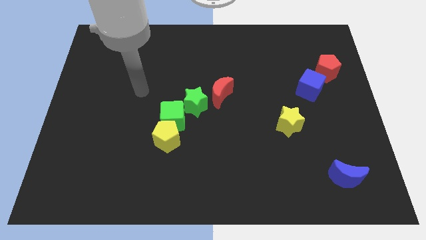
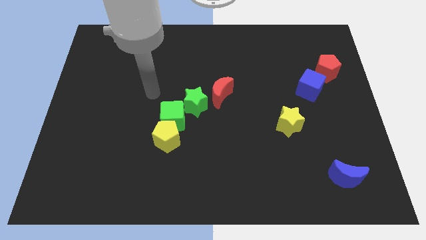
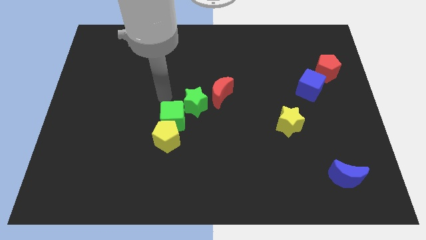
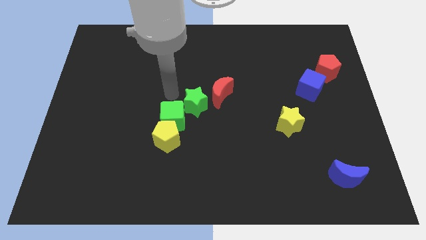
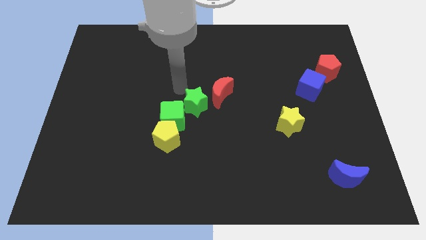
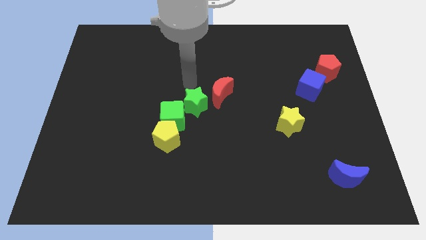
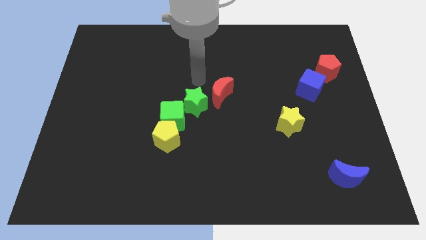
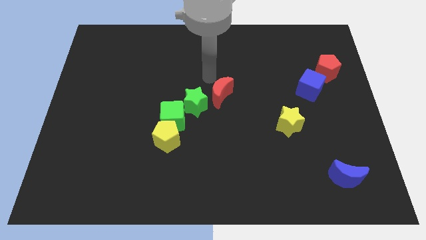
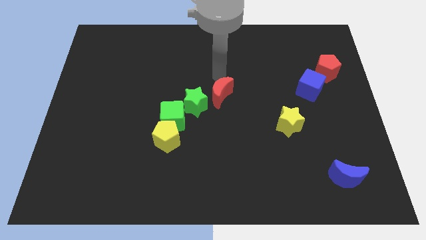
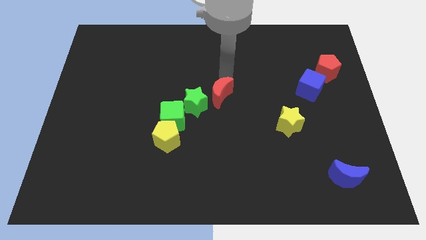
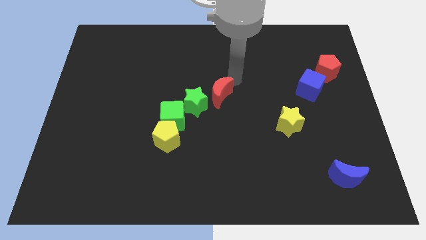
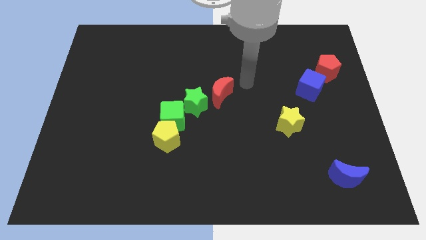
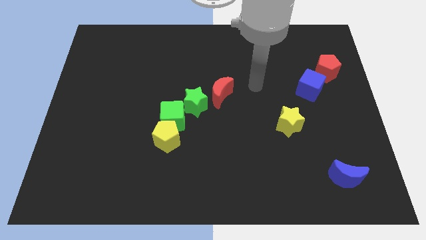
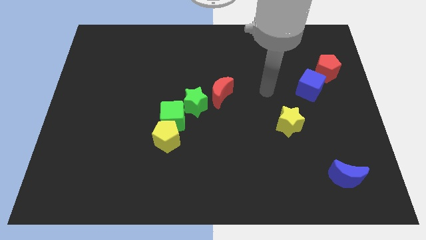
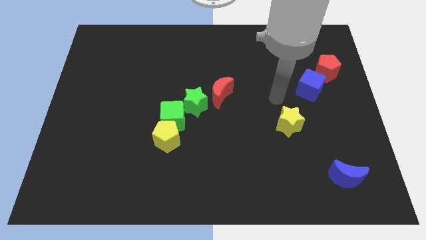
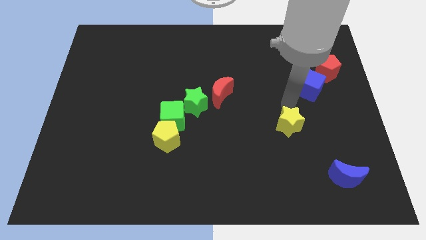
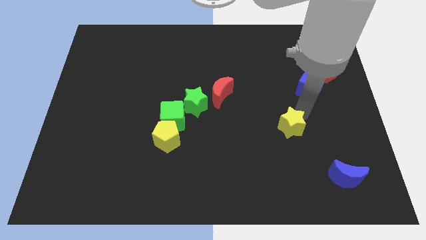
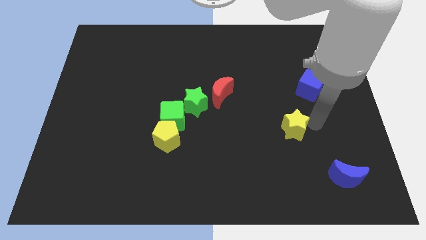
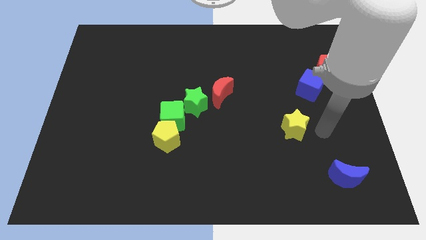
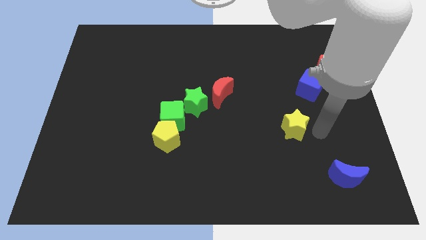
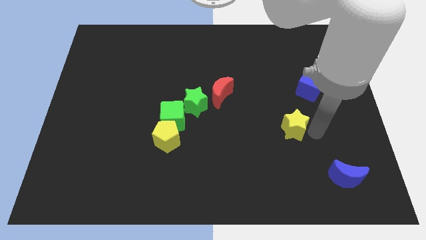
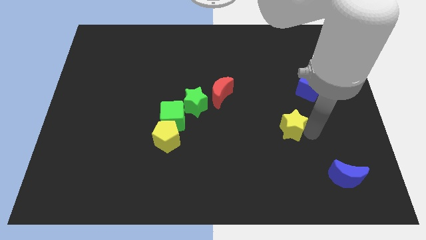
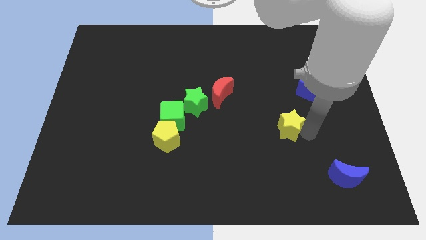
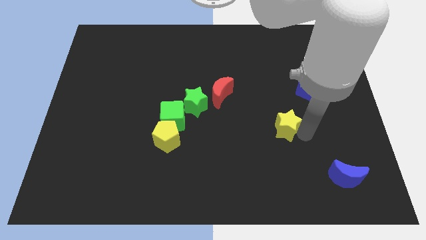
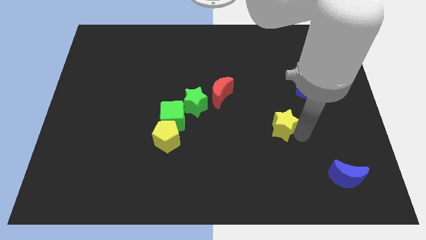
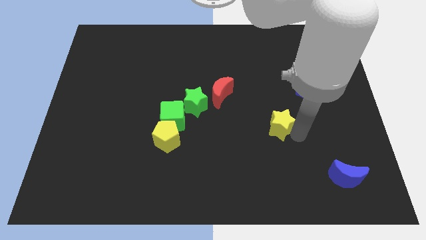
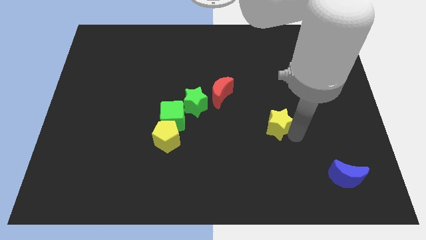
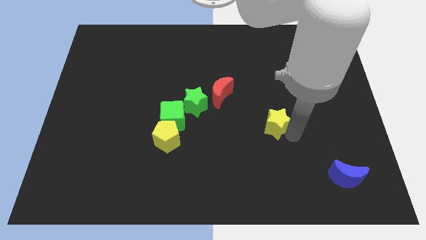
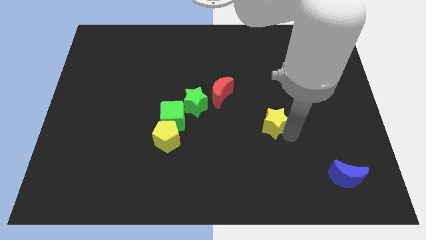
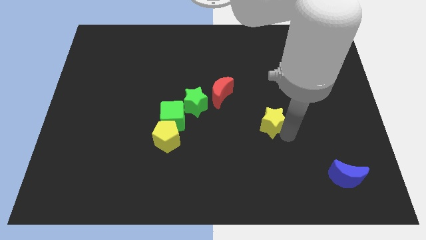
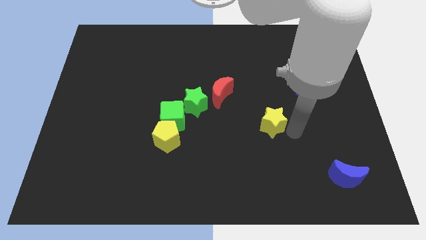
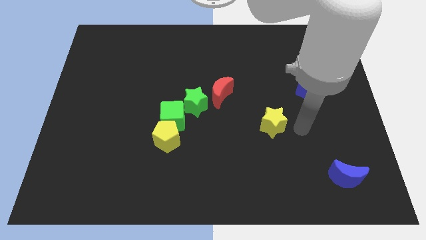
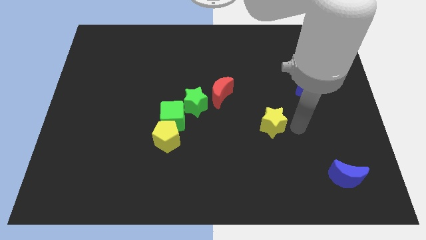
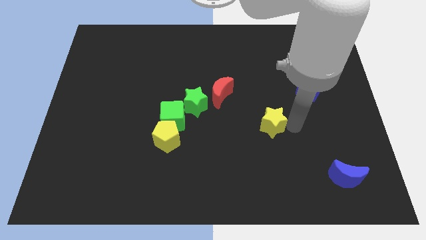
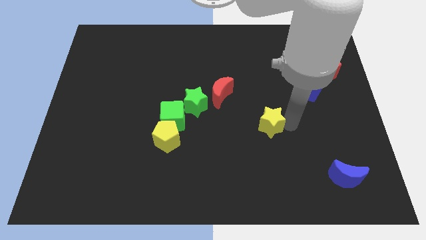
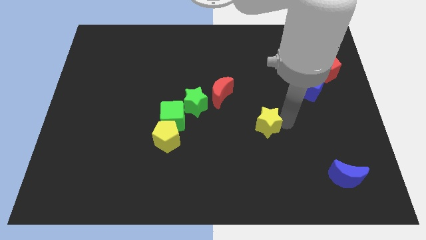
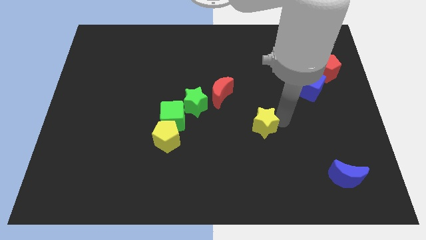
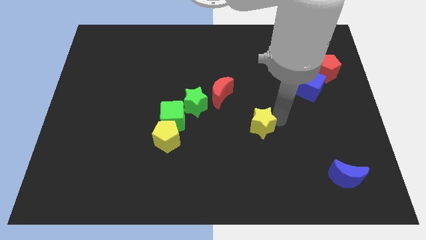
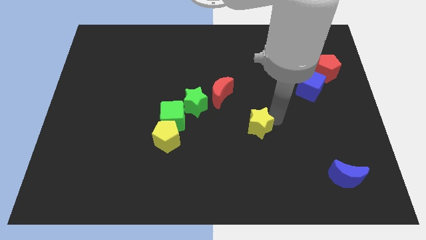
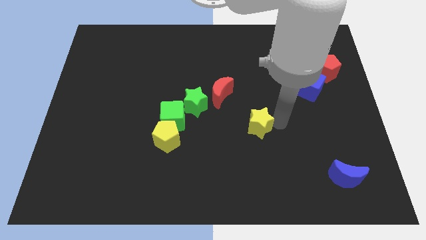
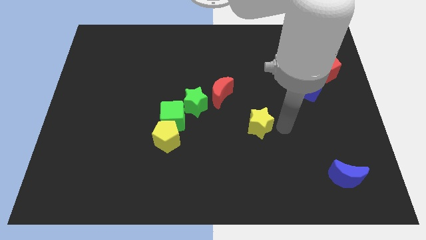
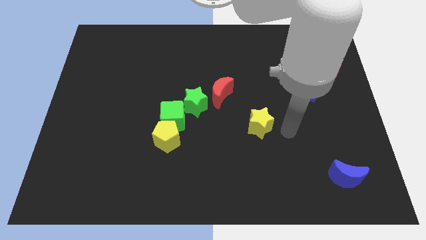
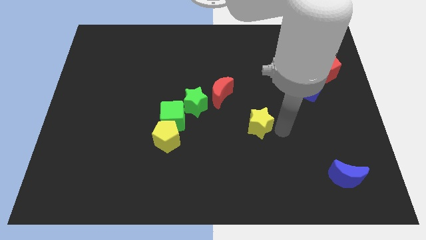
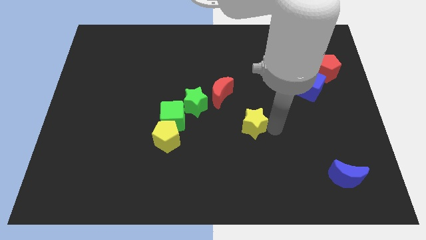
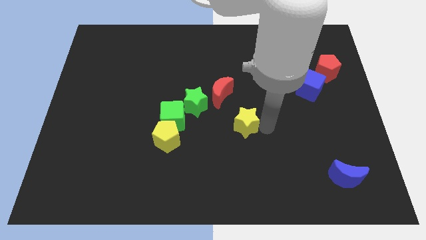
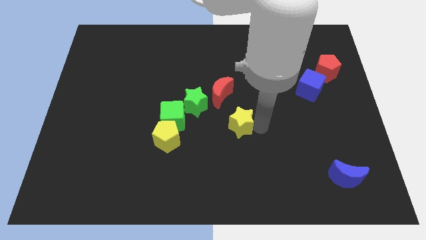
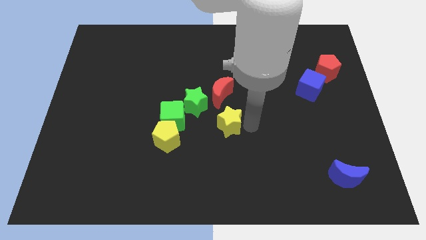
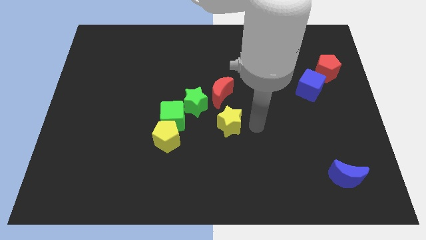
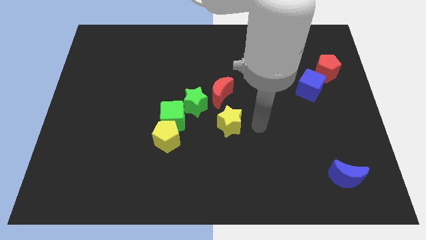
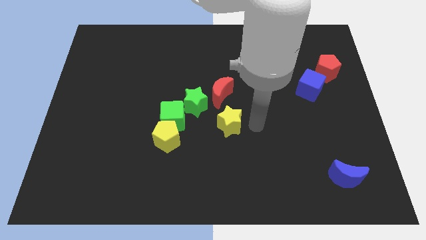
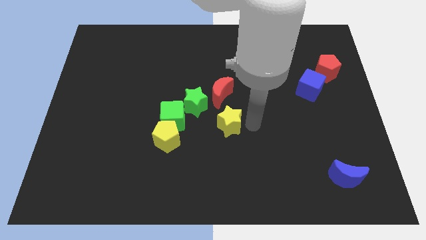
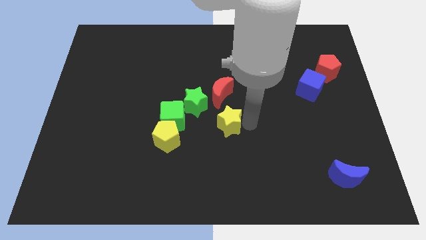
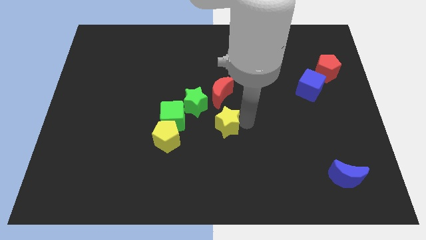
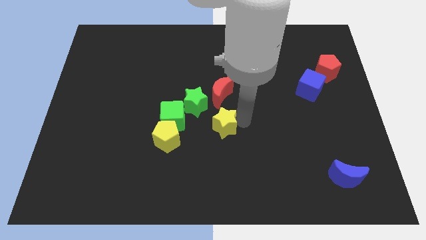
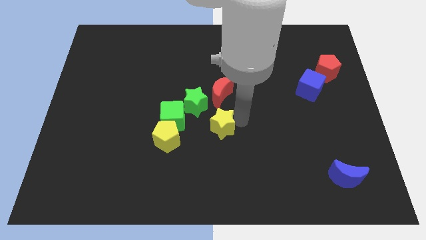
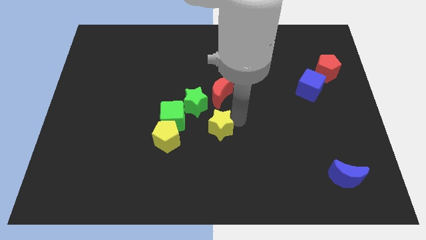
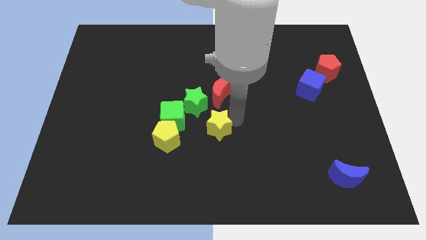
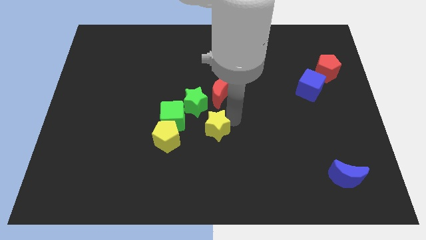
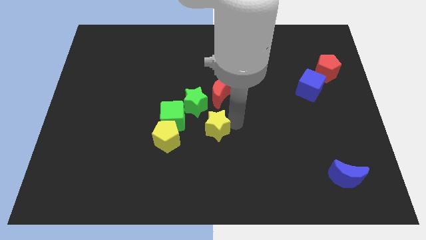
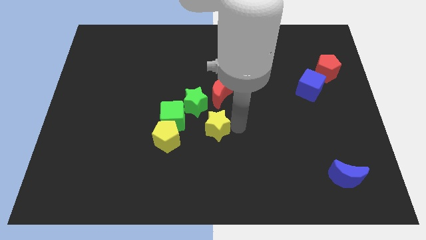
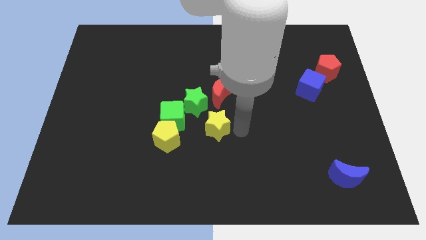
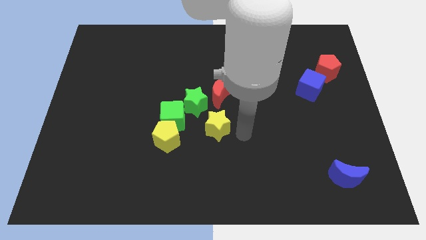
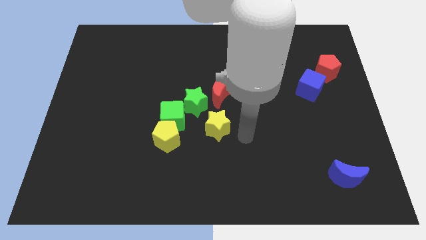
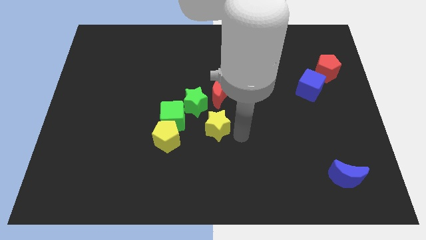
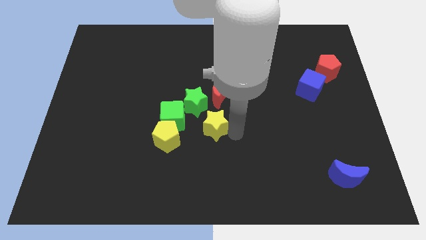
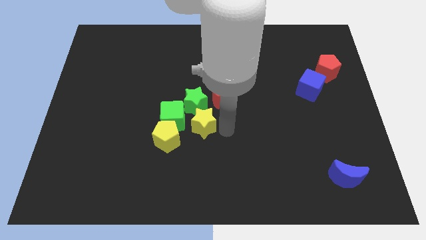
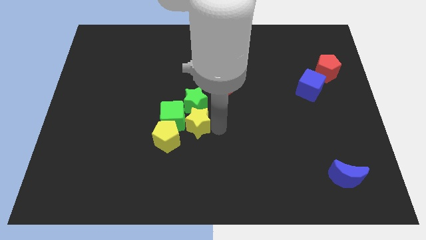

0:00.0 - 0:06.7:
push the yellow star towards the green cube

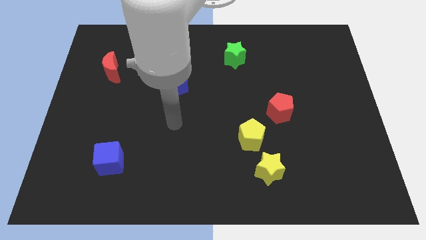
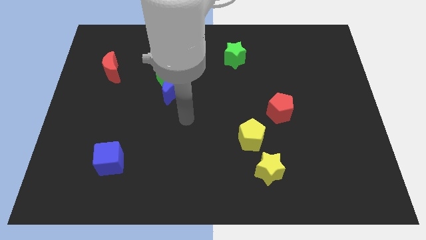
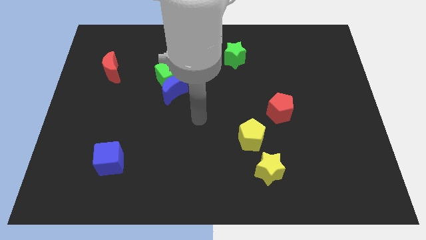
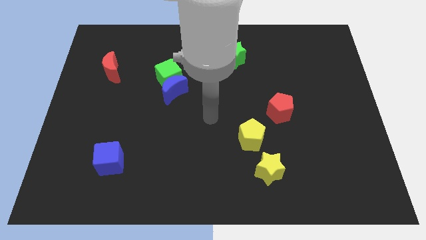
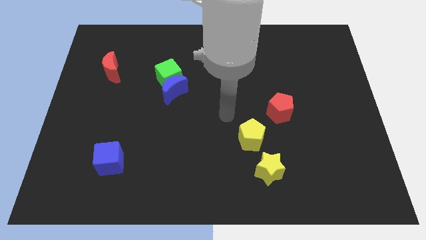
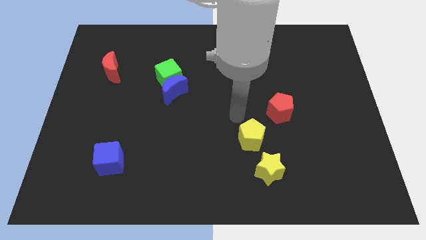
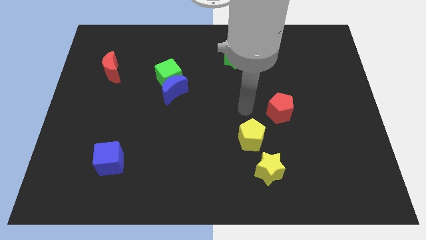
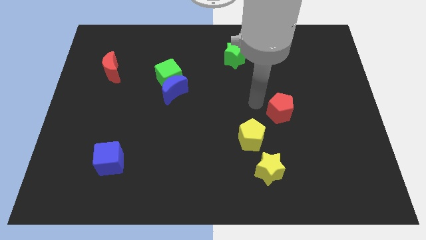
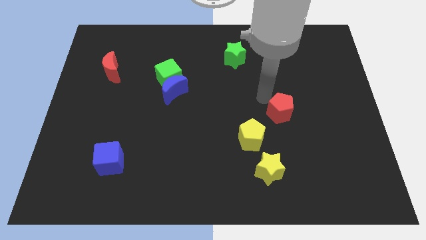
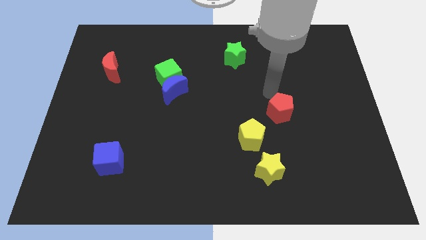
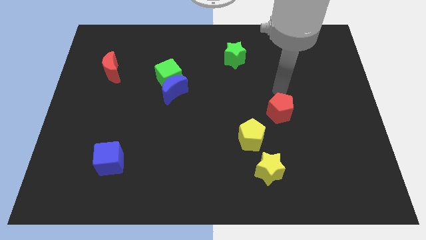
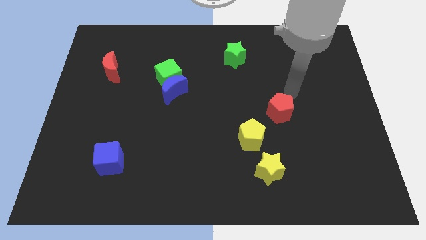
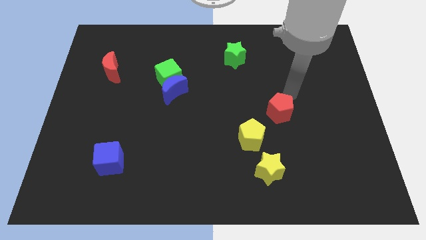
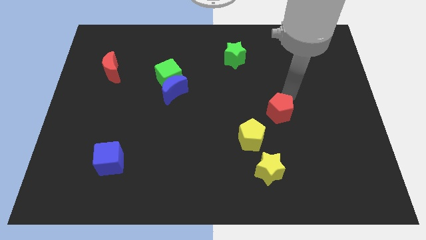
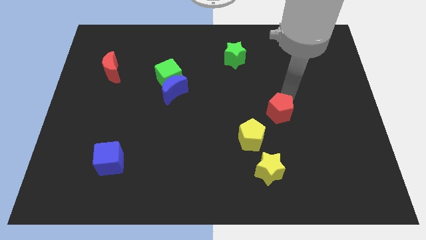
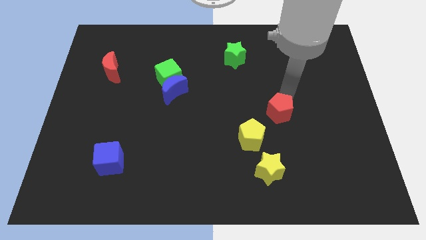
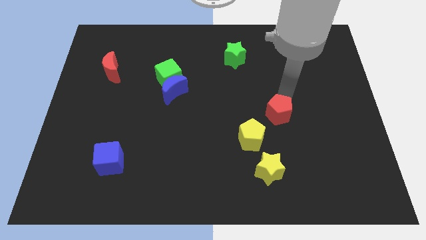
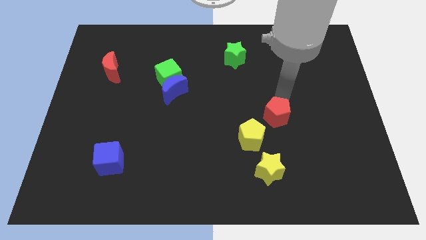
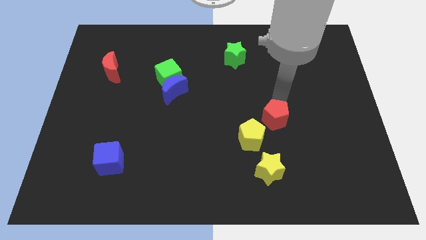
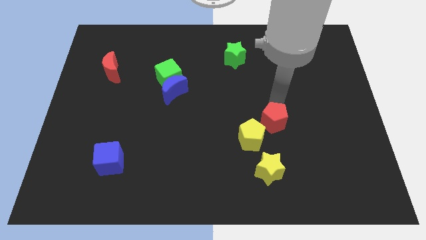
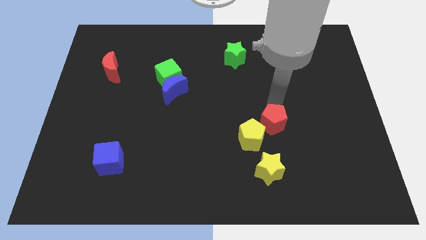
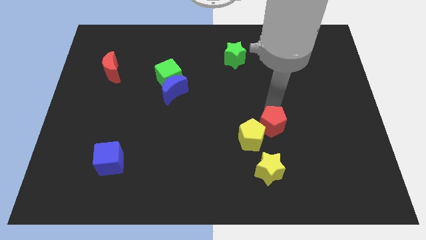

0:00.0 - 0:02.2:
slide the red pentagon close to the yellow pentagon
